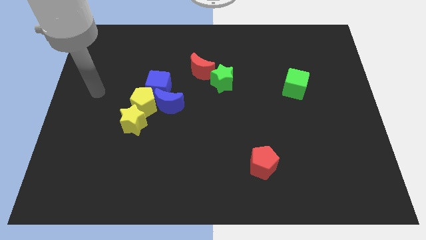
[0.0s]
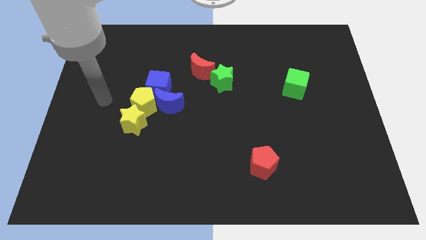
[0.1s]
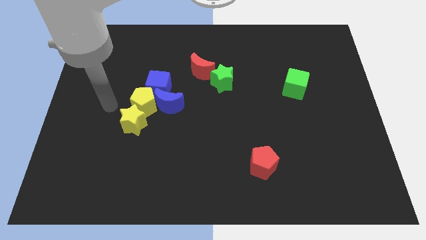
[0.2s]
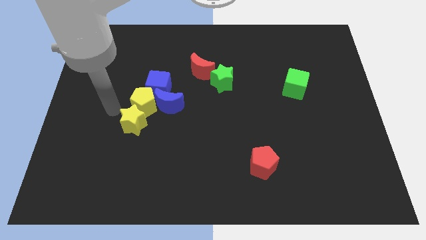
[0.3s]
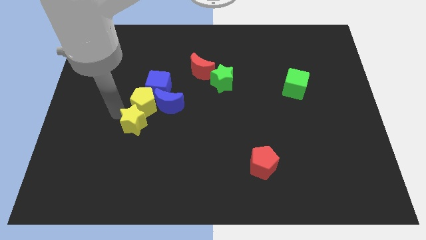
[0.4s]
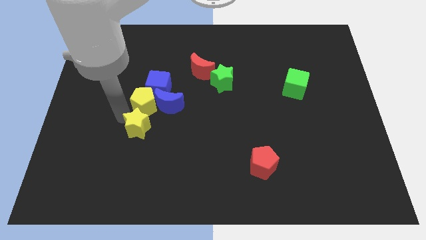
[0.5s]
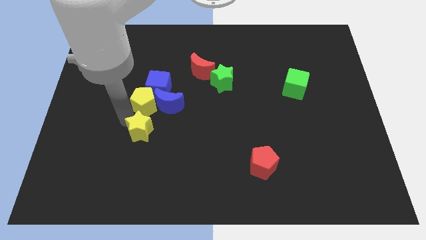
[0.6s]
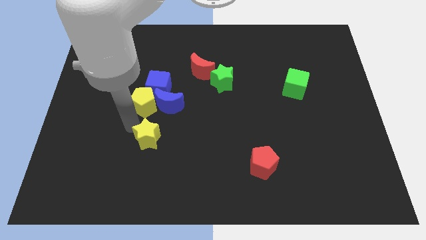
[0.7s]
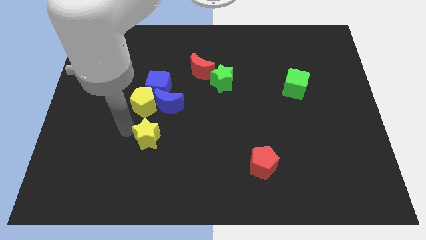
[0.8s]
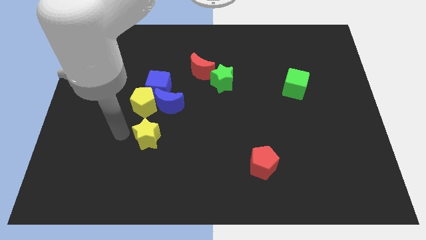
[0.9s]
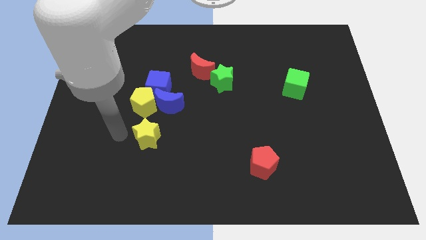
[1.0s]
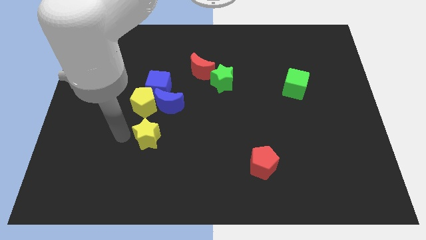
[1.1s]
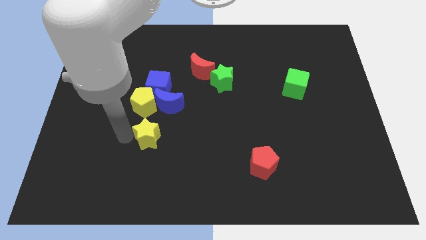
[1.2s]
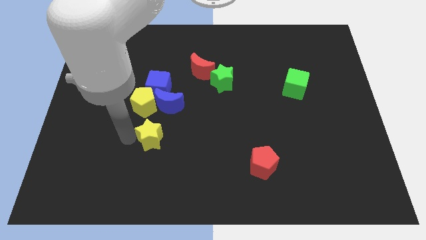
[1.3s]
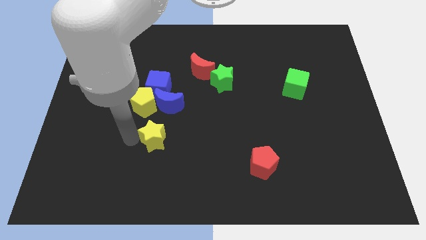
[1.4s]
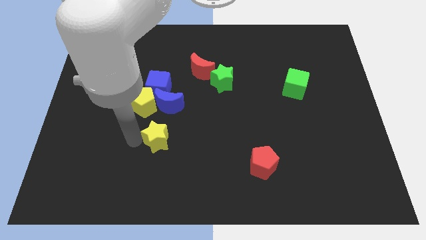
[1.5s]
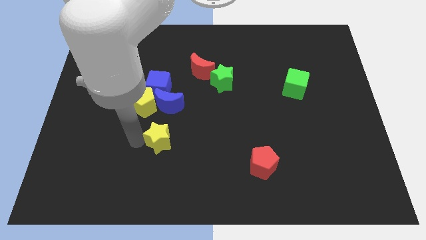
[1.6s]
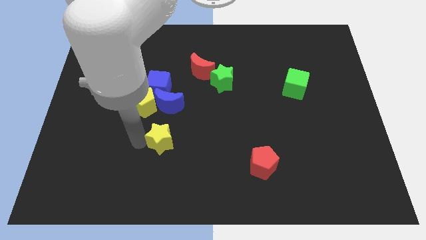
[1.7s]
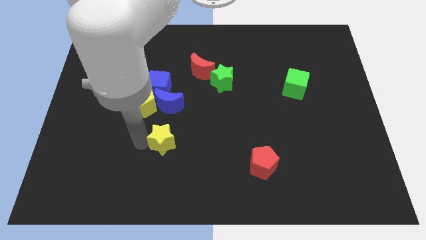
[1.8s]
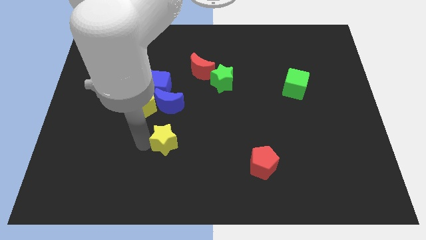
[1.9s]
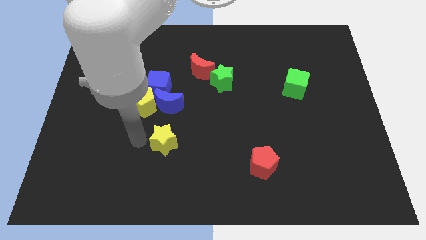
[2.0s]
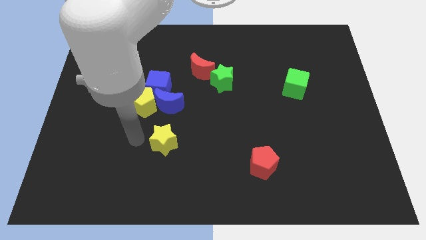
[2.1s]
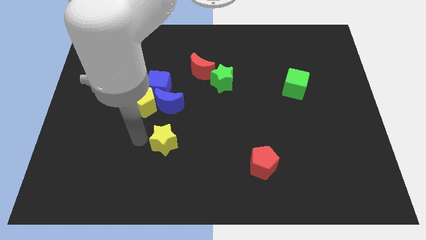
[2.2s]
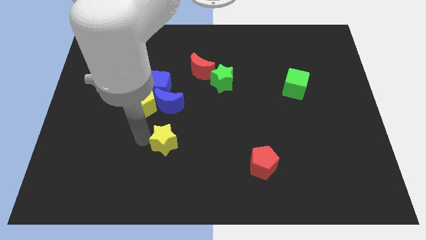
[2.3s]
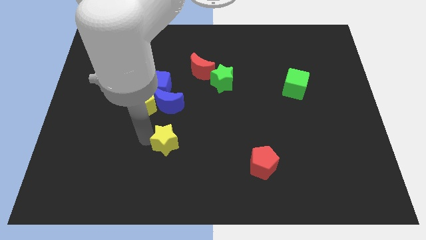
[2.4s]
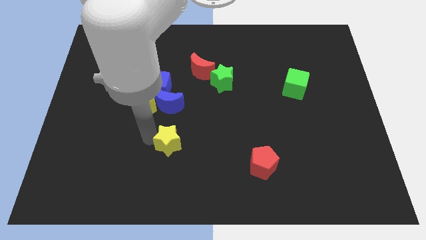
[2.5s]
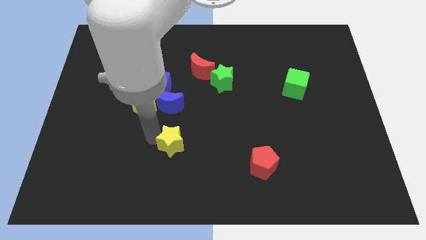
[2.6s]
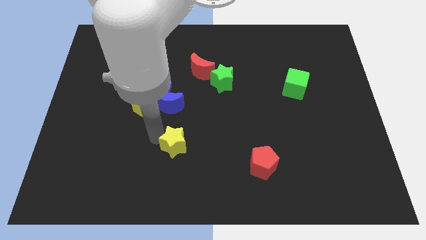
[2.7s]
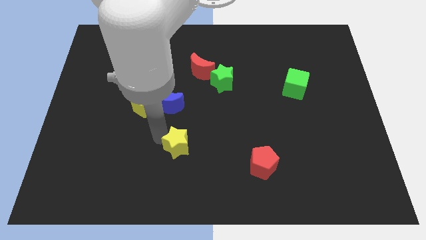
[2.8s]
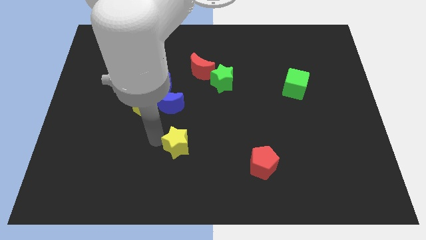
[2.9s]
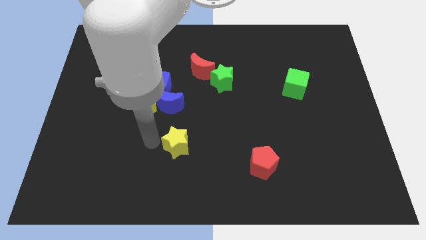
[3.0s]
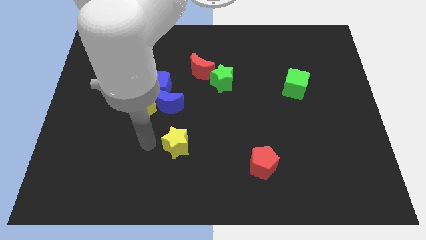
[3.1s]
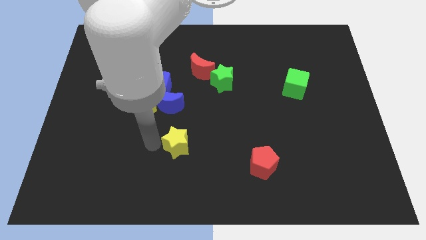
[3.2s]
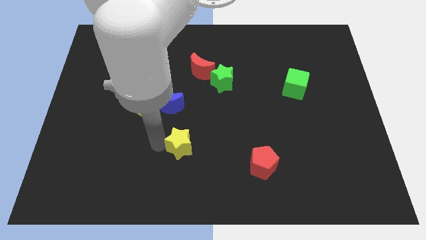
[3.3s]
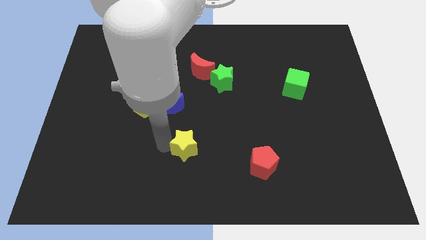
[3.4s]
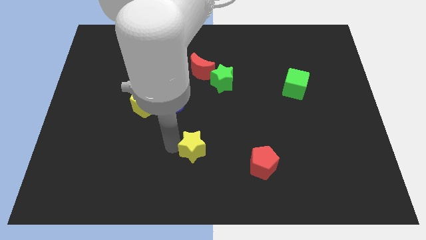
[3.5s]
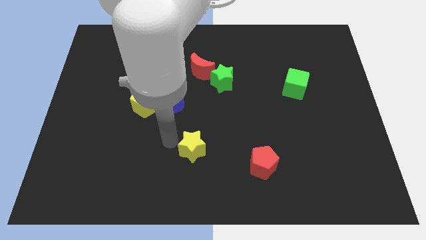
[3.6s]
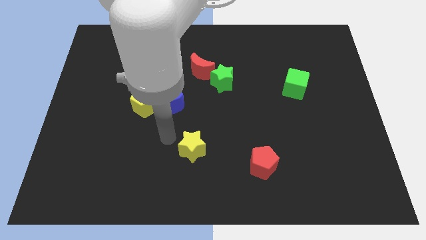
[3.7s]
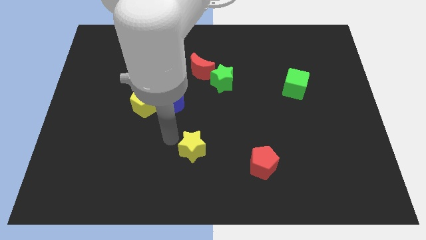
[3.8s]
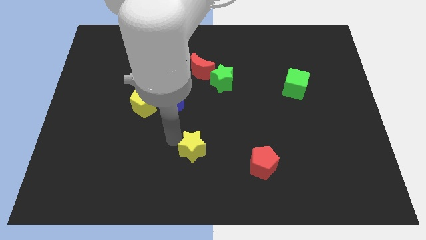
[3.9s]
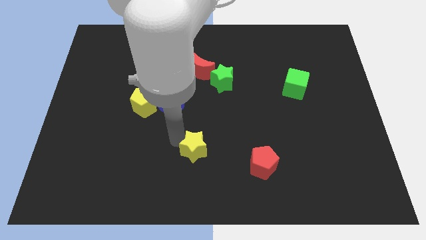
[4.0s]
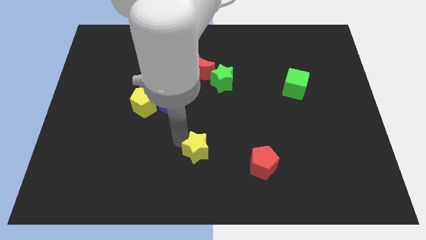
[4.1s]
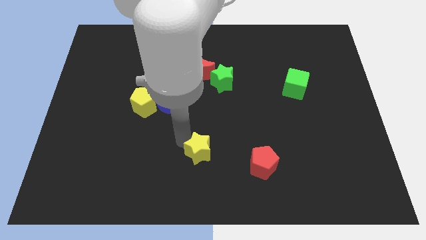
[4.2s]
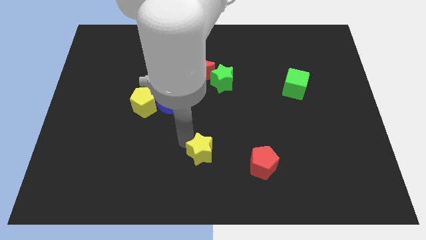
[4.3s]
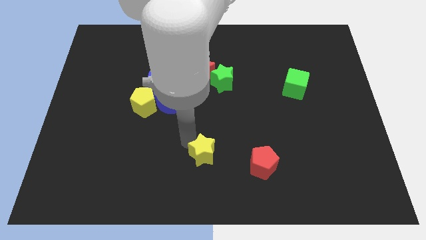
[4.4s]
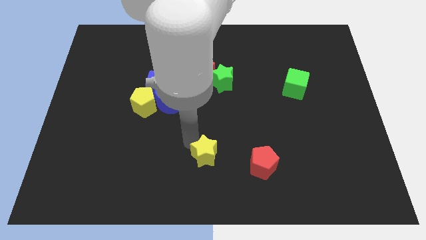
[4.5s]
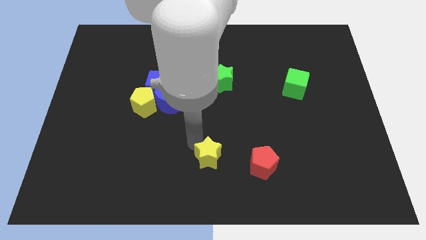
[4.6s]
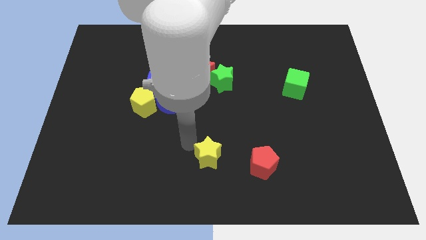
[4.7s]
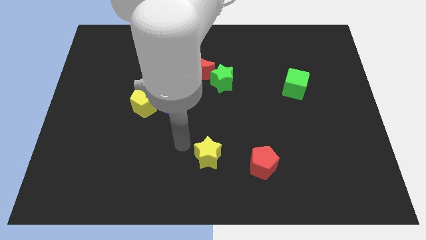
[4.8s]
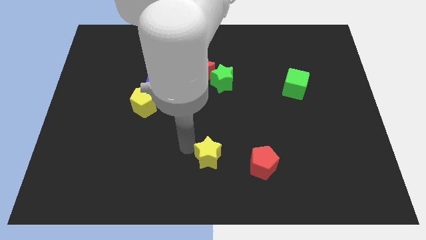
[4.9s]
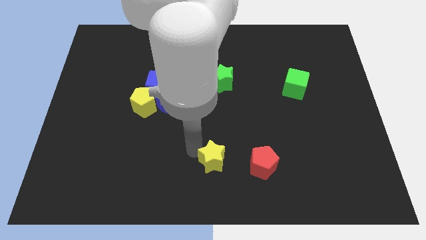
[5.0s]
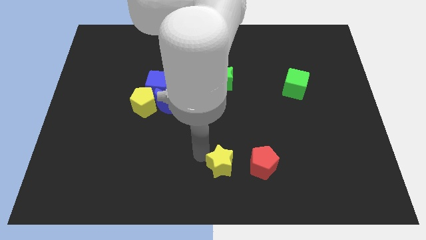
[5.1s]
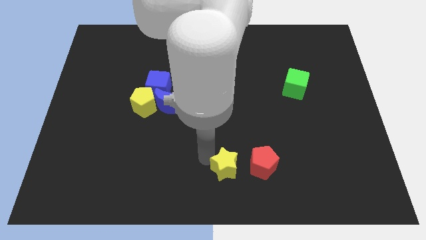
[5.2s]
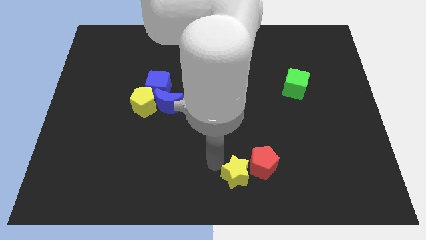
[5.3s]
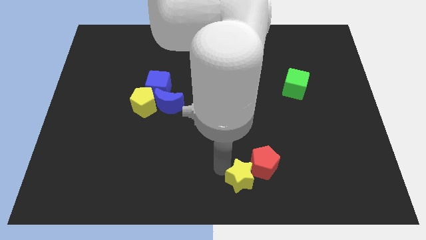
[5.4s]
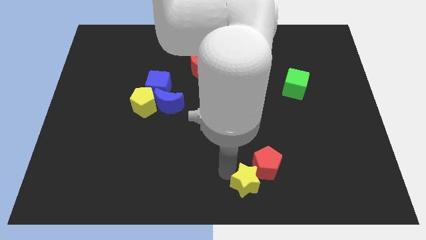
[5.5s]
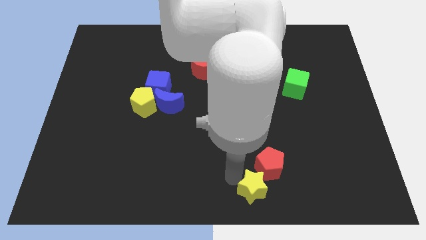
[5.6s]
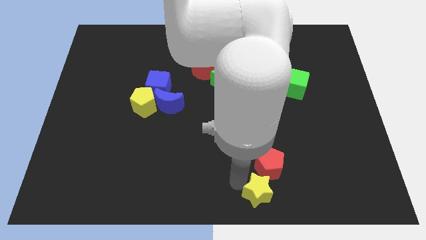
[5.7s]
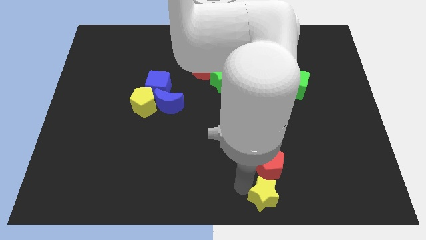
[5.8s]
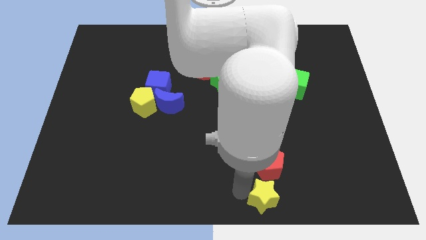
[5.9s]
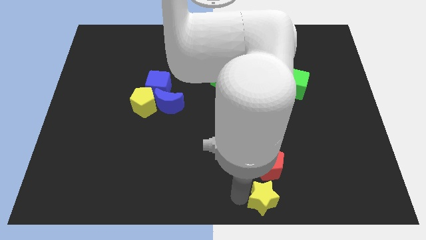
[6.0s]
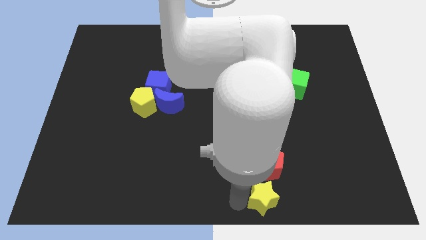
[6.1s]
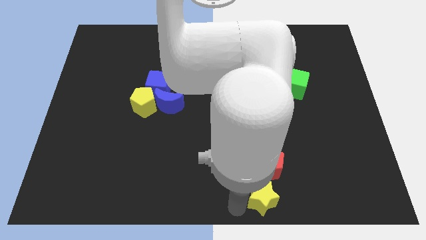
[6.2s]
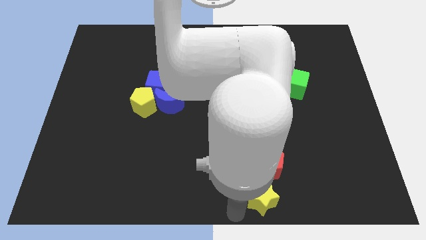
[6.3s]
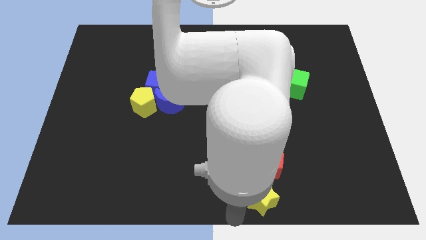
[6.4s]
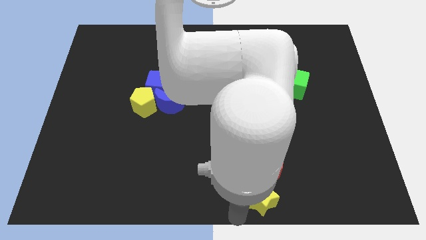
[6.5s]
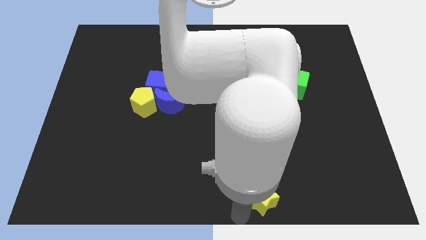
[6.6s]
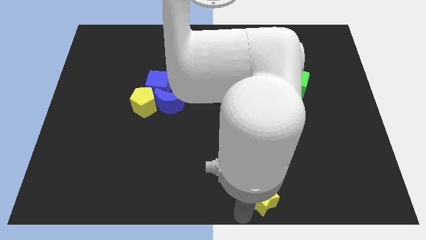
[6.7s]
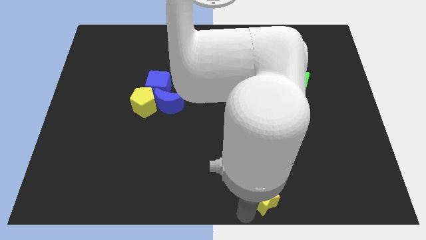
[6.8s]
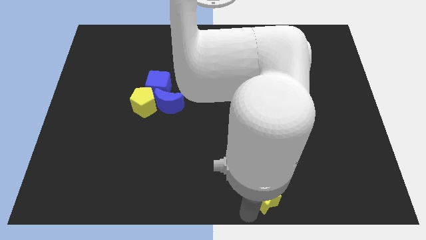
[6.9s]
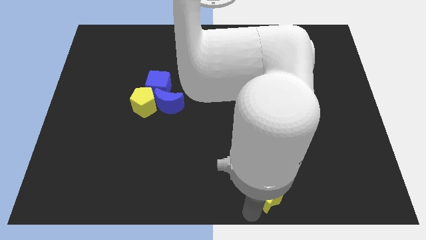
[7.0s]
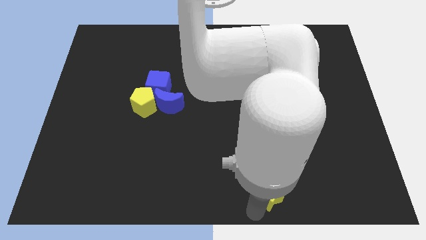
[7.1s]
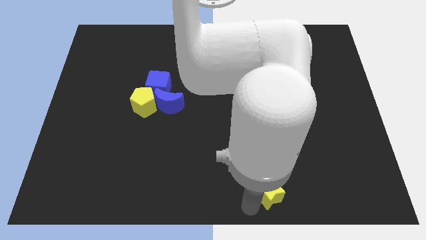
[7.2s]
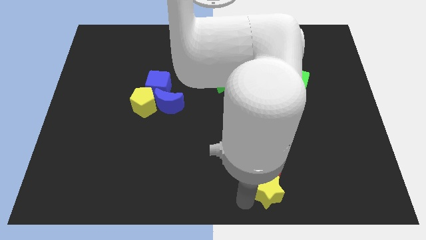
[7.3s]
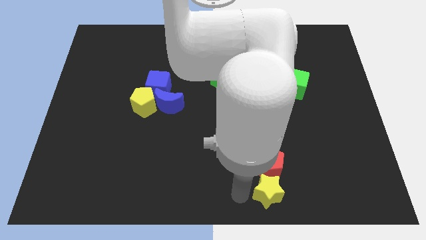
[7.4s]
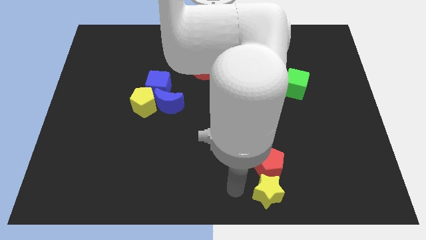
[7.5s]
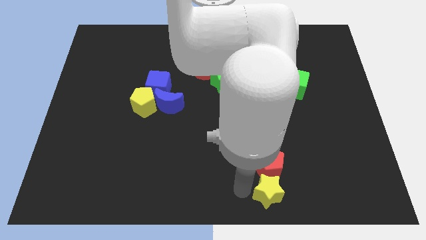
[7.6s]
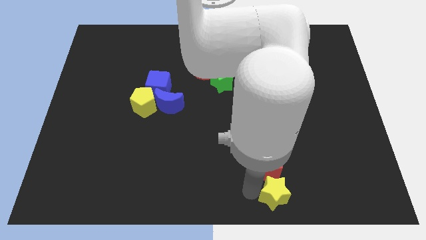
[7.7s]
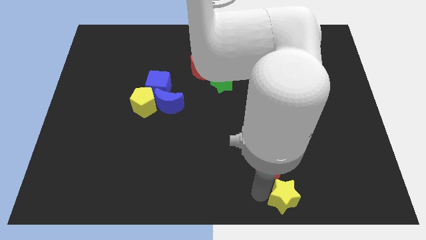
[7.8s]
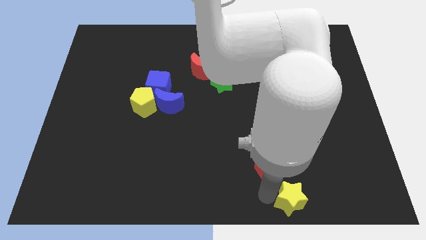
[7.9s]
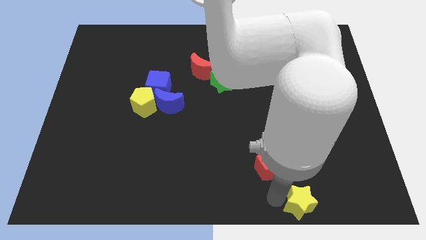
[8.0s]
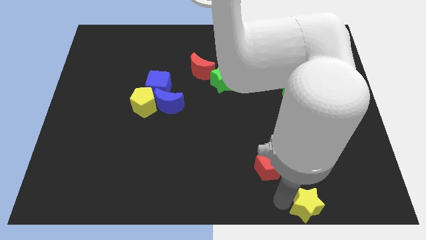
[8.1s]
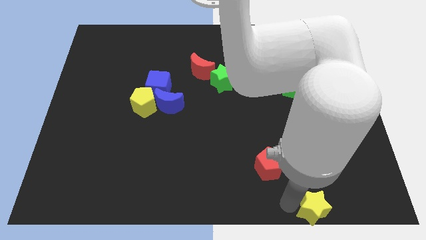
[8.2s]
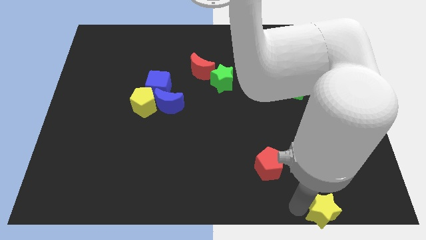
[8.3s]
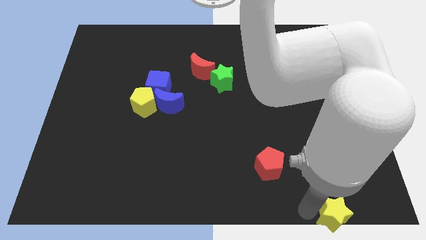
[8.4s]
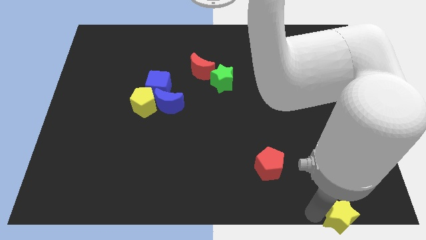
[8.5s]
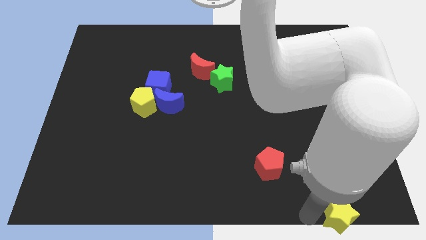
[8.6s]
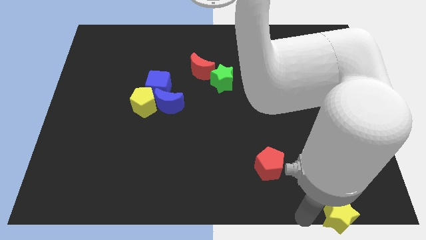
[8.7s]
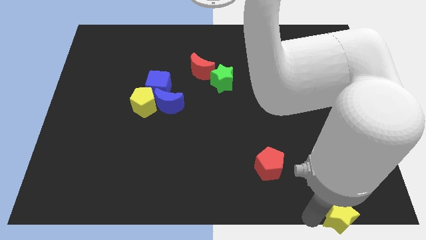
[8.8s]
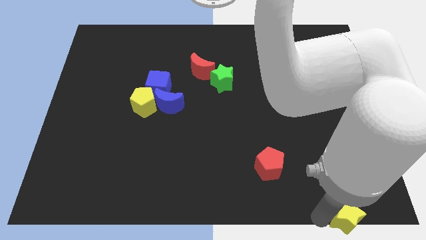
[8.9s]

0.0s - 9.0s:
move the yellow star to the lower right corner
